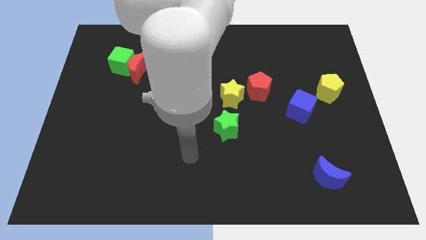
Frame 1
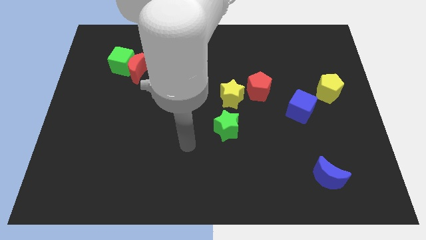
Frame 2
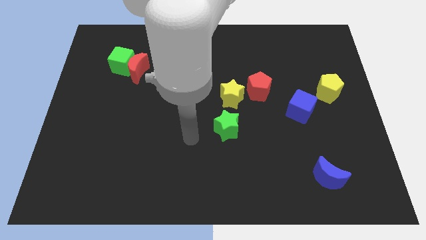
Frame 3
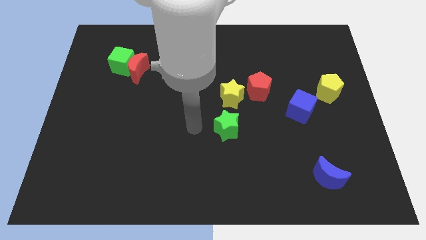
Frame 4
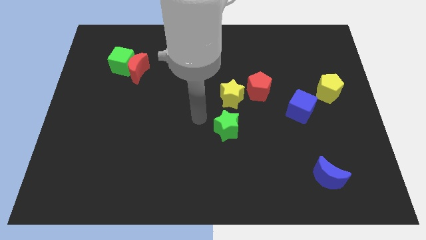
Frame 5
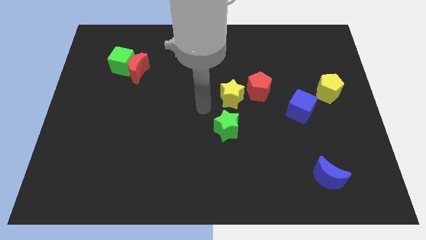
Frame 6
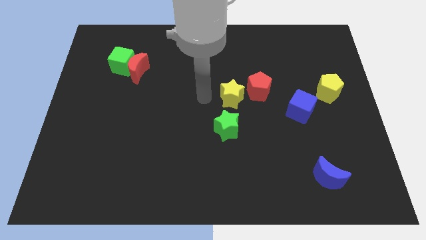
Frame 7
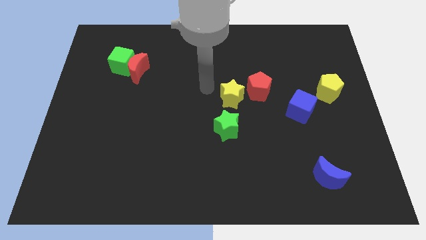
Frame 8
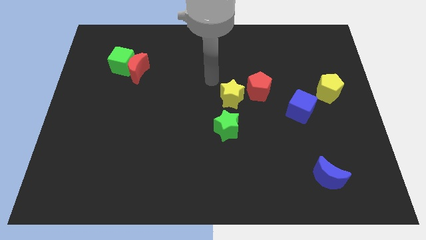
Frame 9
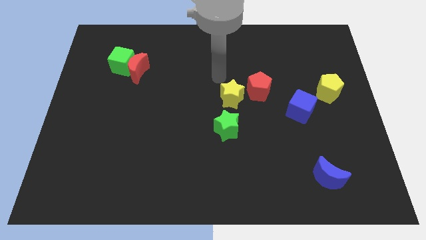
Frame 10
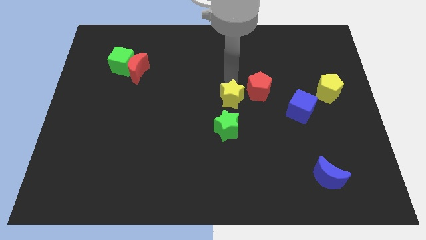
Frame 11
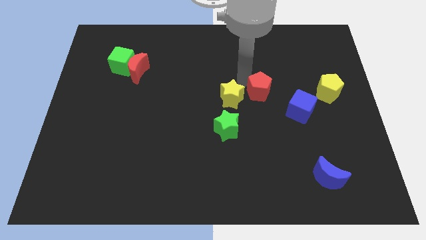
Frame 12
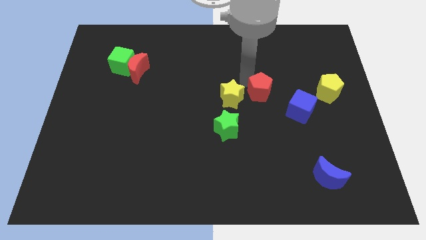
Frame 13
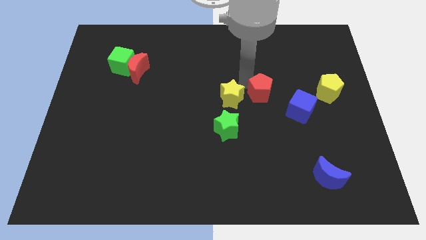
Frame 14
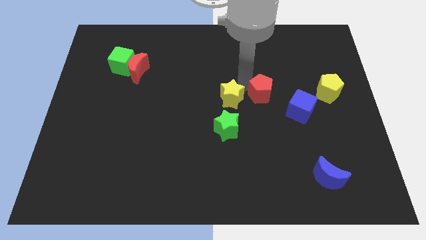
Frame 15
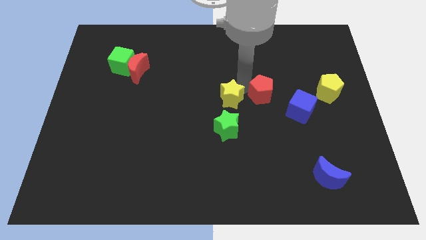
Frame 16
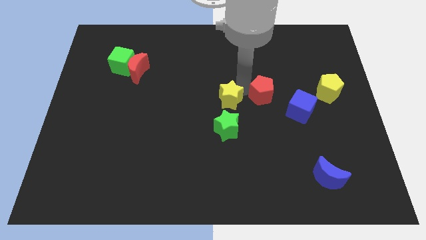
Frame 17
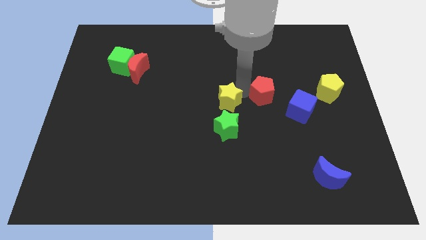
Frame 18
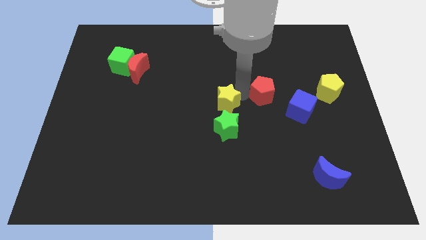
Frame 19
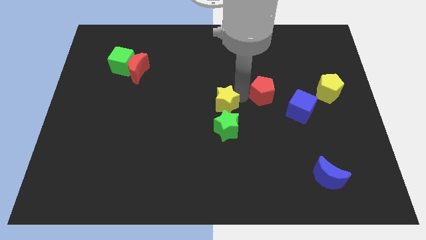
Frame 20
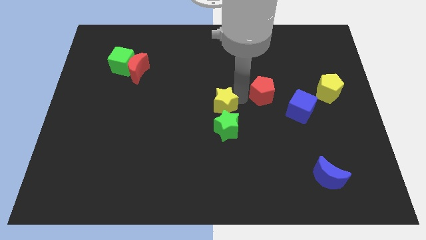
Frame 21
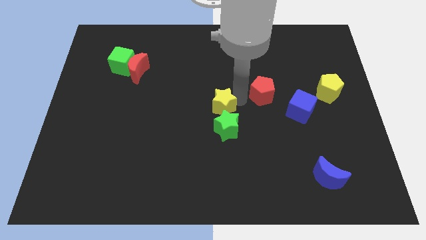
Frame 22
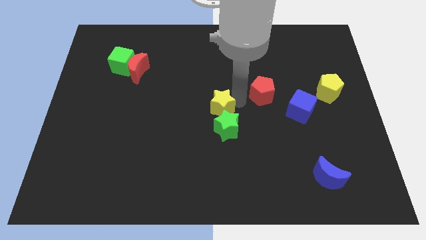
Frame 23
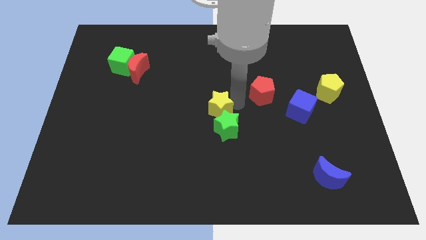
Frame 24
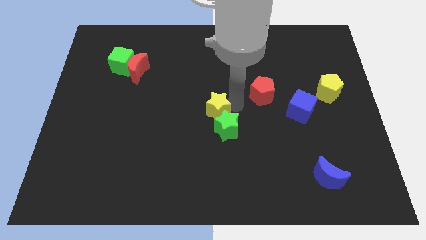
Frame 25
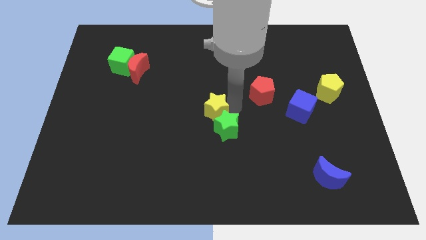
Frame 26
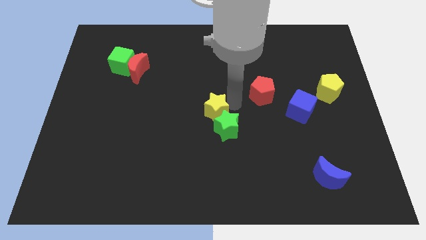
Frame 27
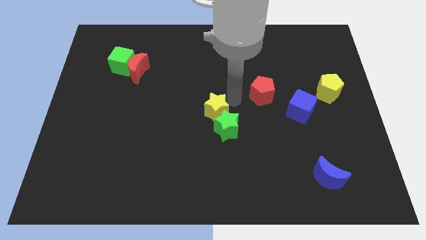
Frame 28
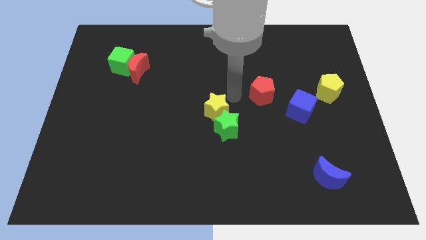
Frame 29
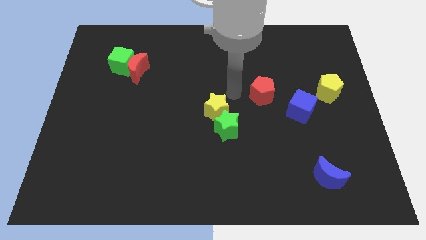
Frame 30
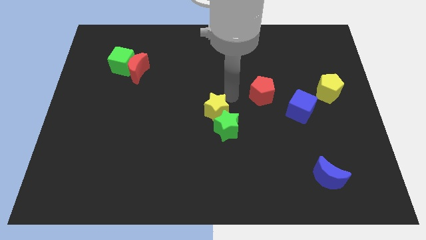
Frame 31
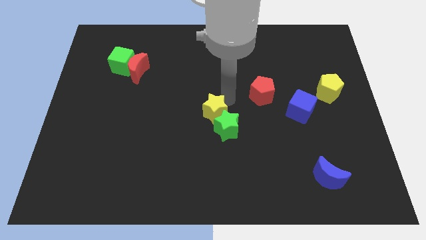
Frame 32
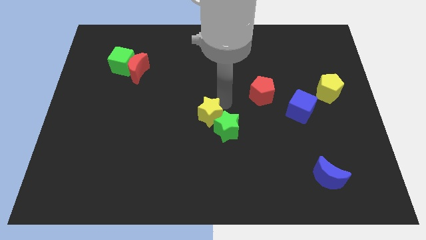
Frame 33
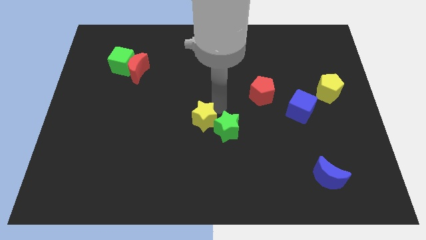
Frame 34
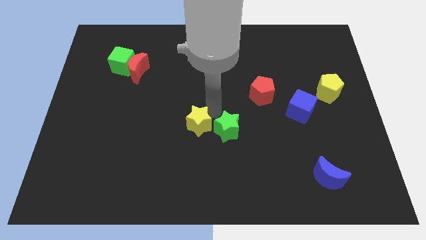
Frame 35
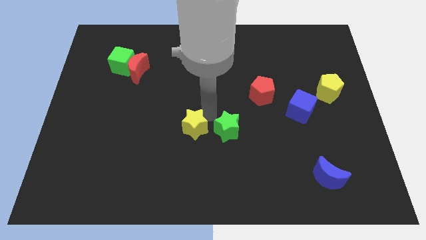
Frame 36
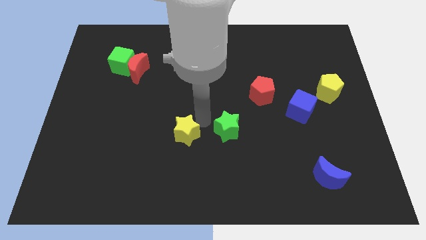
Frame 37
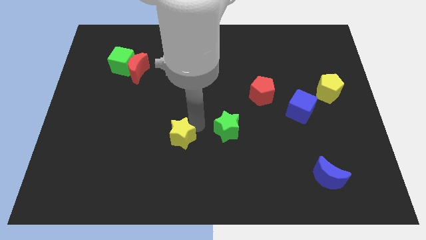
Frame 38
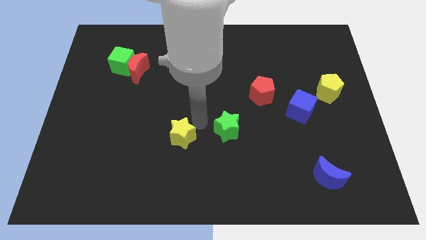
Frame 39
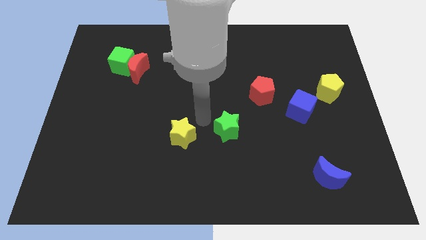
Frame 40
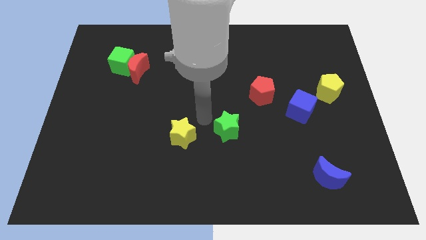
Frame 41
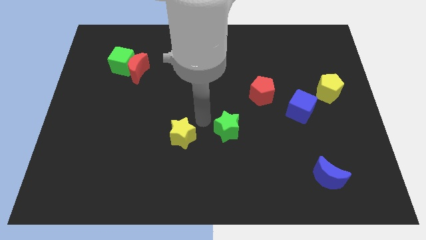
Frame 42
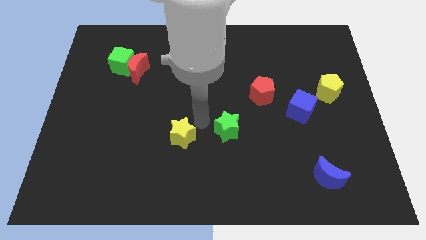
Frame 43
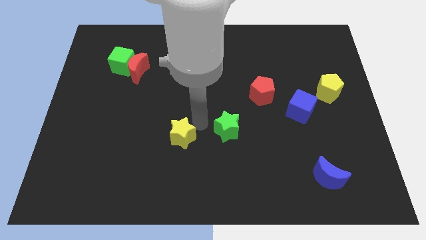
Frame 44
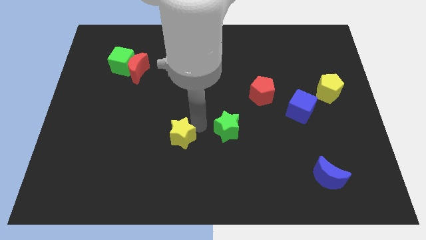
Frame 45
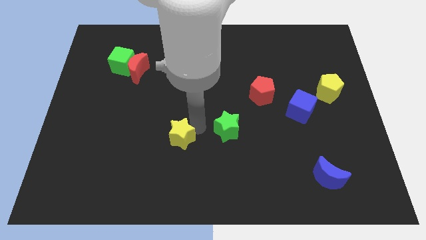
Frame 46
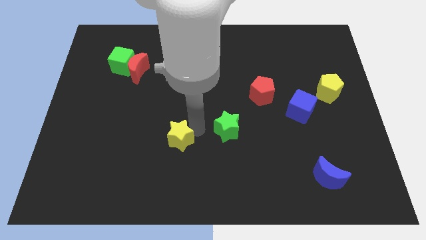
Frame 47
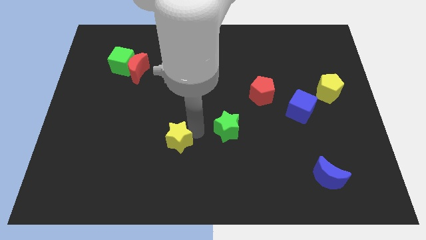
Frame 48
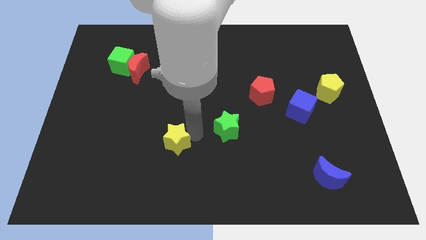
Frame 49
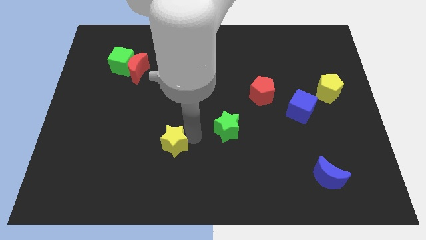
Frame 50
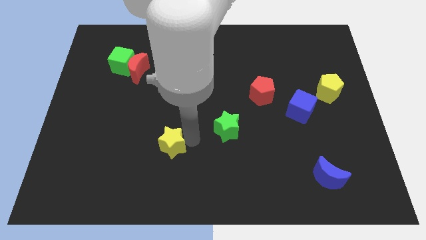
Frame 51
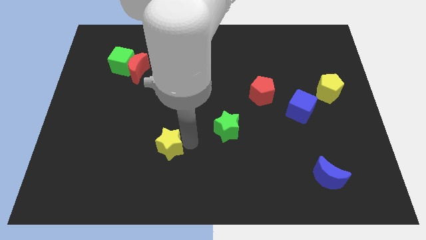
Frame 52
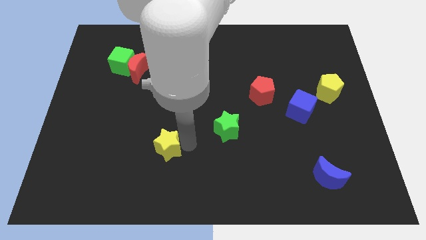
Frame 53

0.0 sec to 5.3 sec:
move the yellow star down and then left

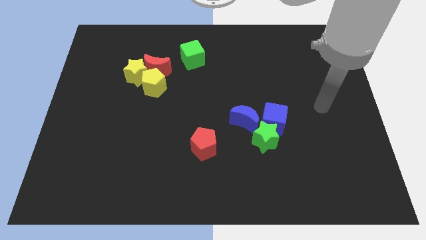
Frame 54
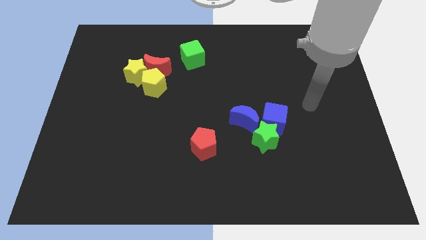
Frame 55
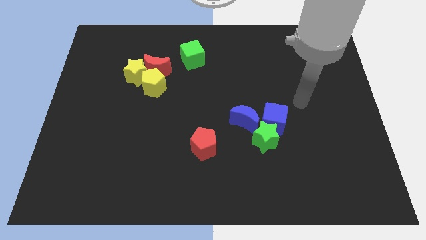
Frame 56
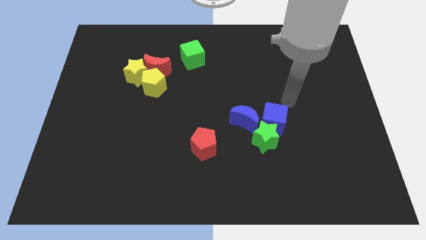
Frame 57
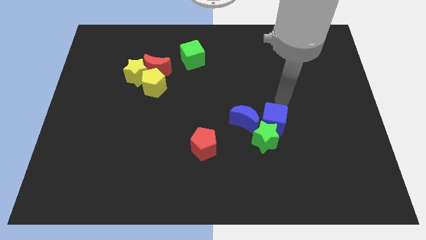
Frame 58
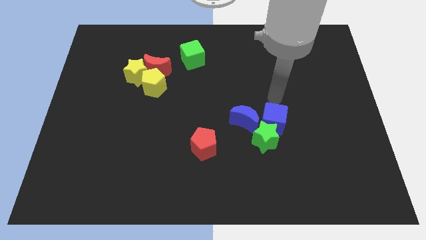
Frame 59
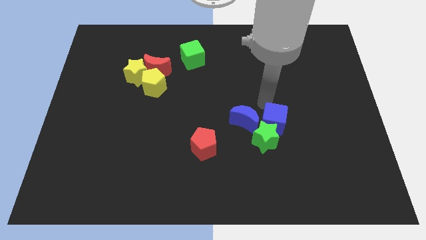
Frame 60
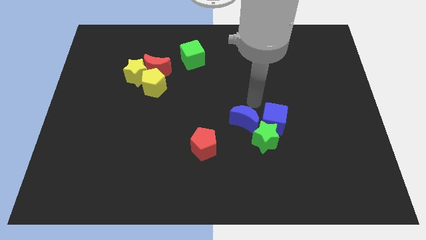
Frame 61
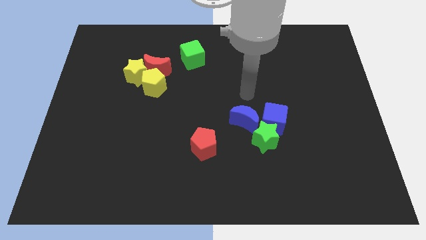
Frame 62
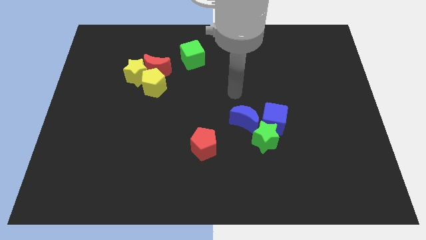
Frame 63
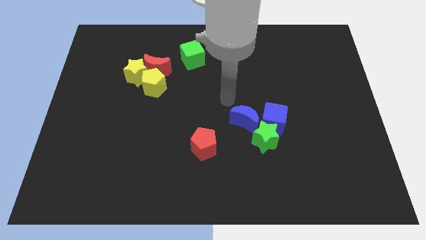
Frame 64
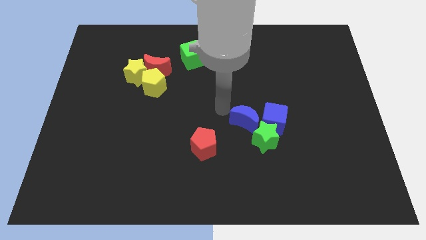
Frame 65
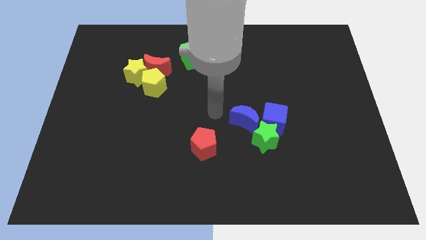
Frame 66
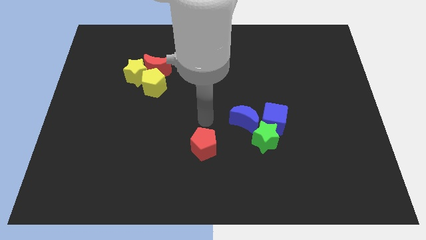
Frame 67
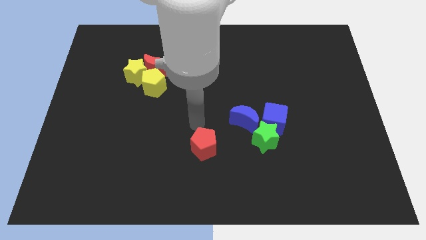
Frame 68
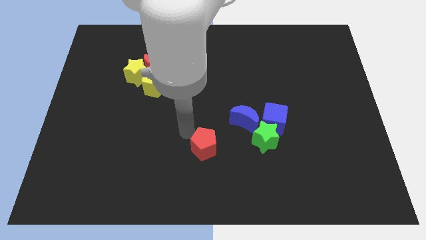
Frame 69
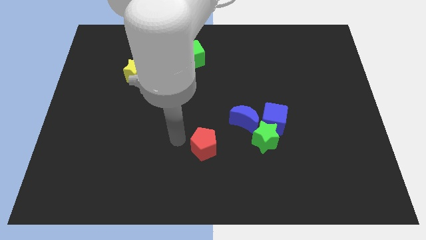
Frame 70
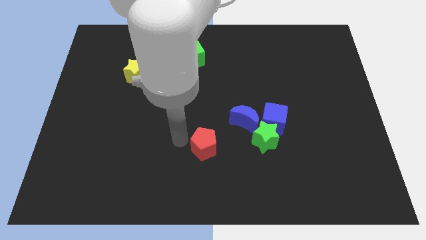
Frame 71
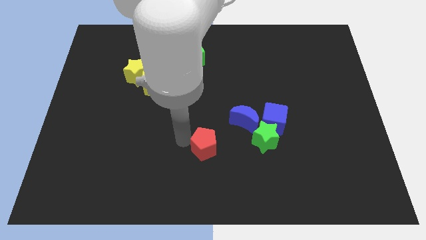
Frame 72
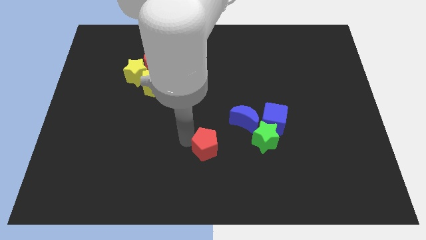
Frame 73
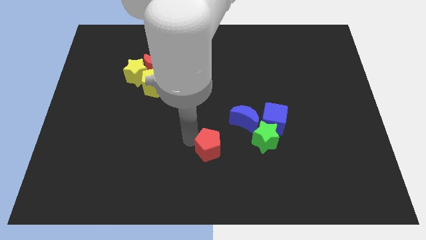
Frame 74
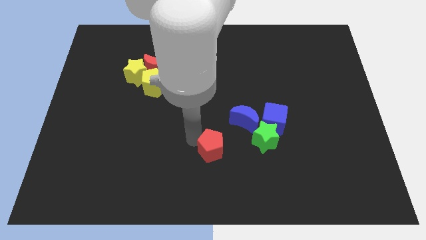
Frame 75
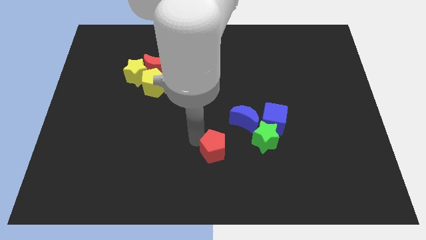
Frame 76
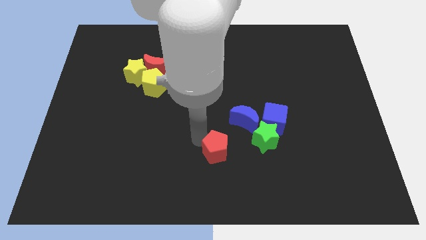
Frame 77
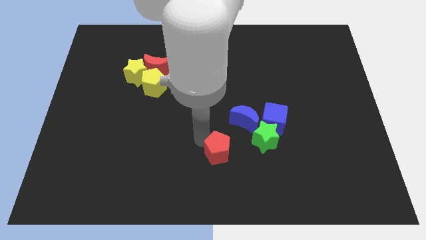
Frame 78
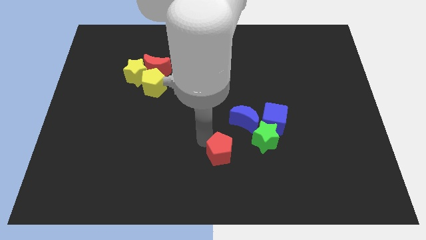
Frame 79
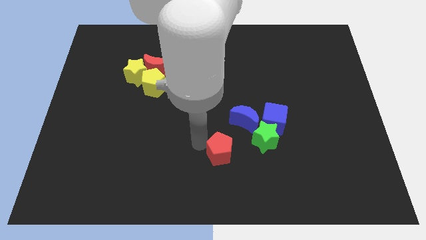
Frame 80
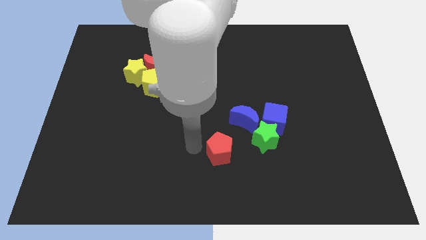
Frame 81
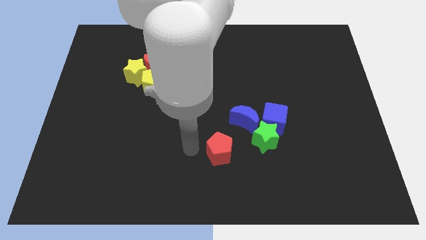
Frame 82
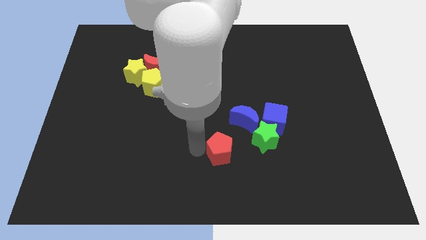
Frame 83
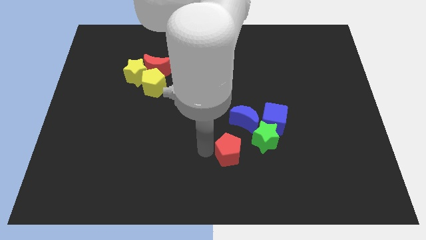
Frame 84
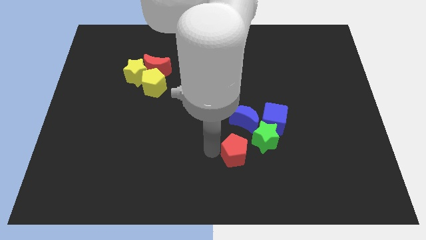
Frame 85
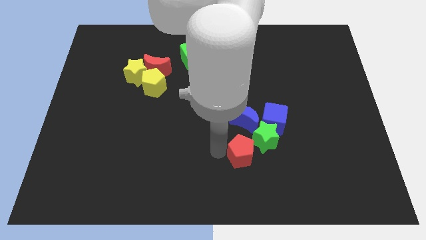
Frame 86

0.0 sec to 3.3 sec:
slide the red pentagon to the right a bit
